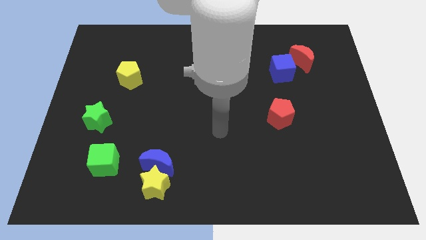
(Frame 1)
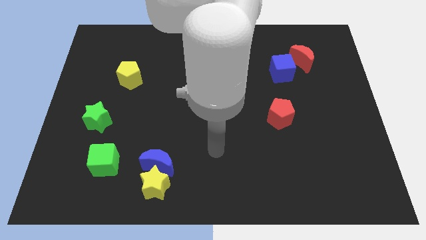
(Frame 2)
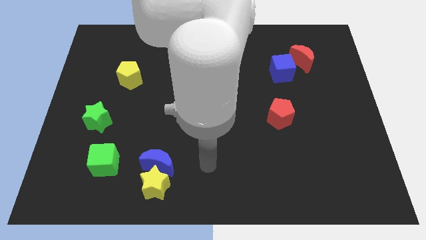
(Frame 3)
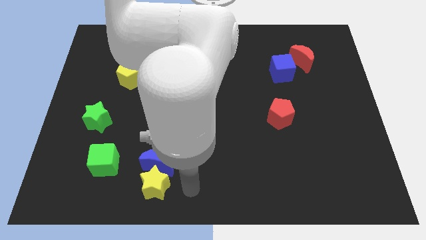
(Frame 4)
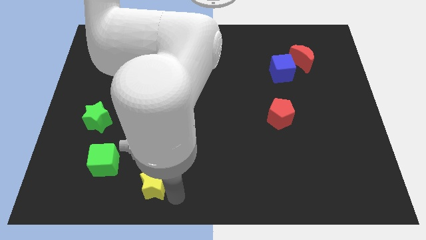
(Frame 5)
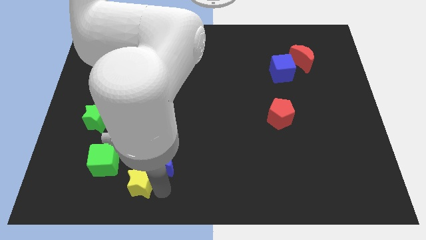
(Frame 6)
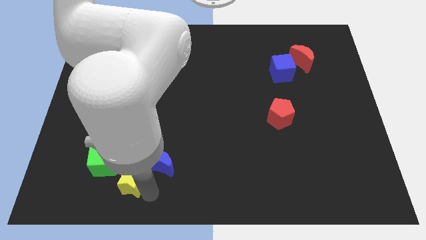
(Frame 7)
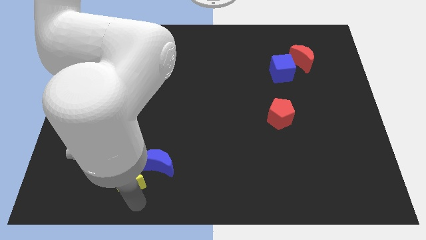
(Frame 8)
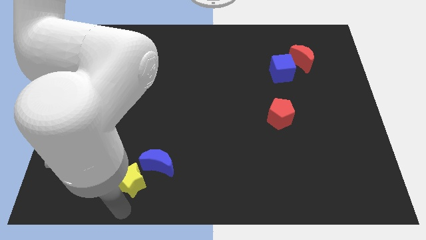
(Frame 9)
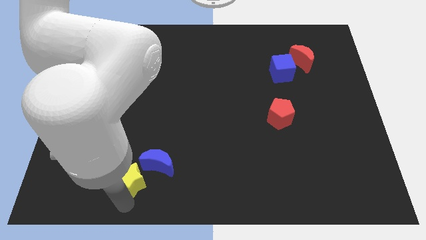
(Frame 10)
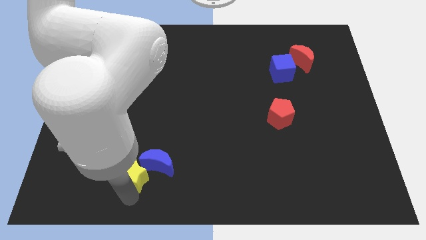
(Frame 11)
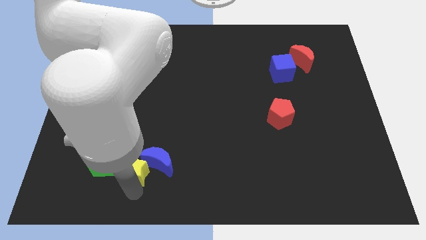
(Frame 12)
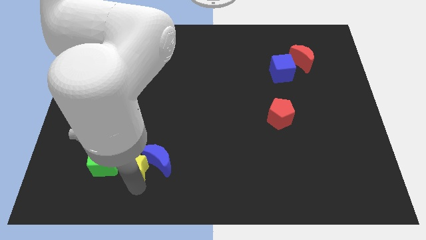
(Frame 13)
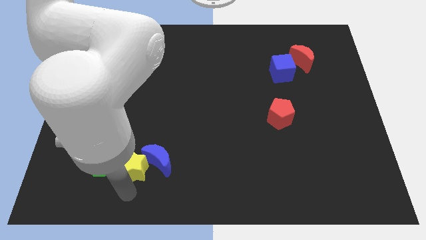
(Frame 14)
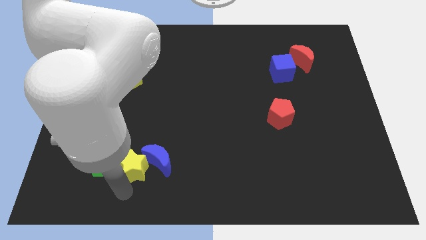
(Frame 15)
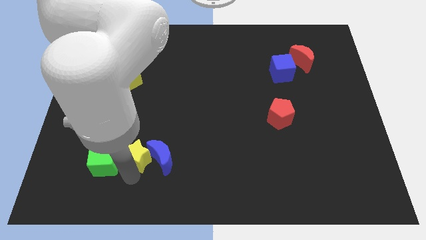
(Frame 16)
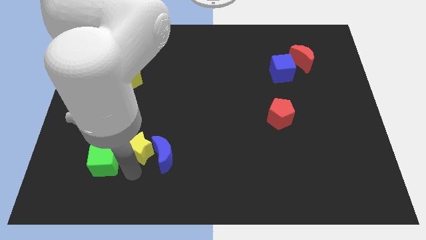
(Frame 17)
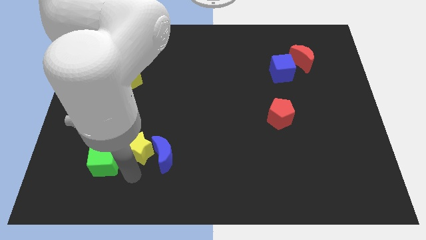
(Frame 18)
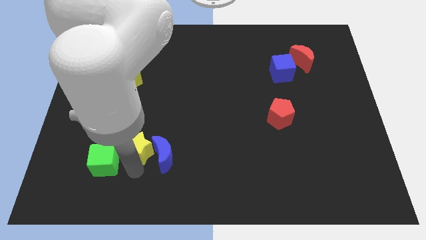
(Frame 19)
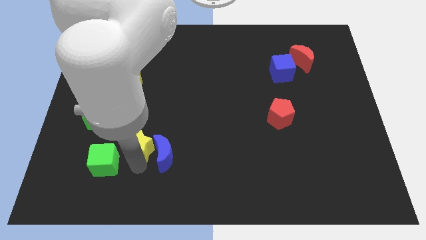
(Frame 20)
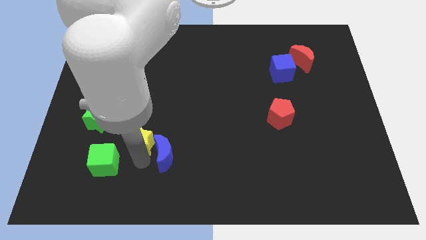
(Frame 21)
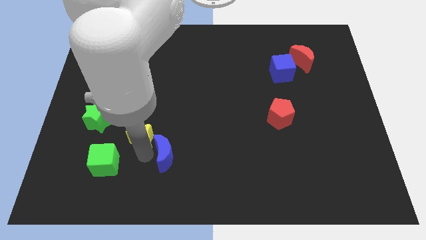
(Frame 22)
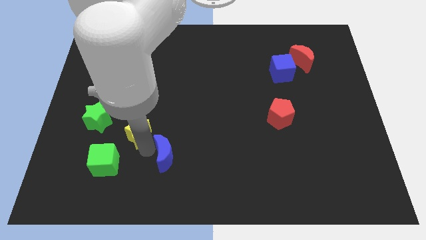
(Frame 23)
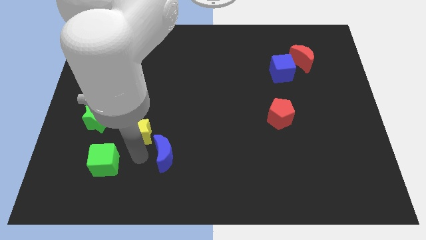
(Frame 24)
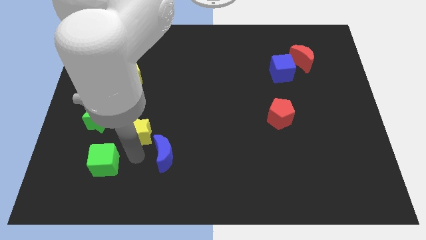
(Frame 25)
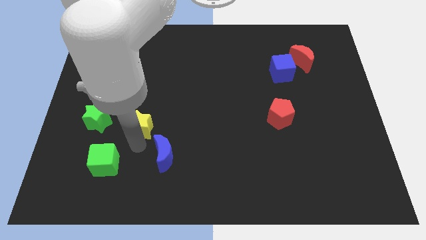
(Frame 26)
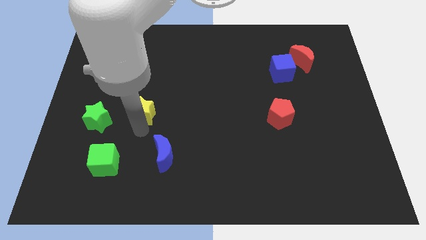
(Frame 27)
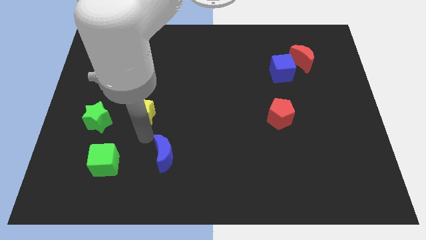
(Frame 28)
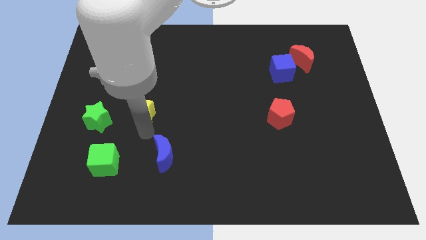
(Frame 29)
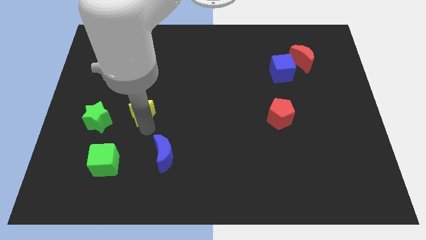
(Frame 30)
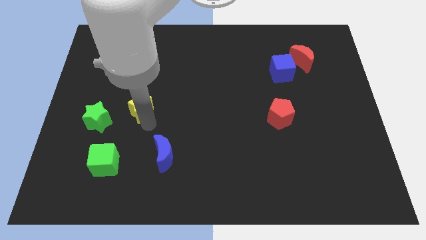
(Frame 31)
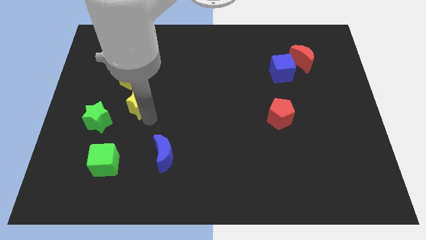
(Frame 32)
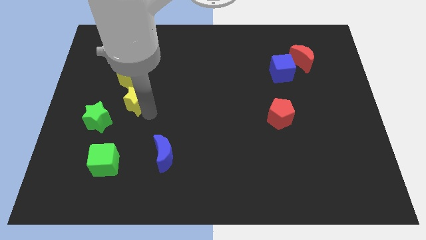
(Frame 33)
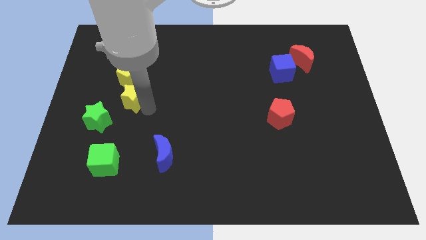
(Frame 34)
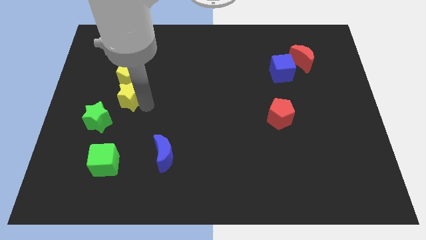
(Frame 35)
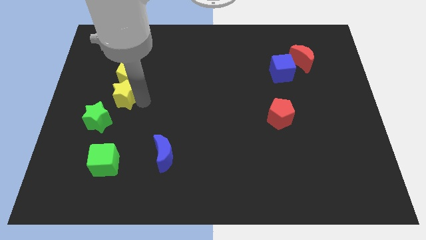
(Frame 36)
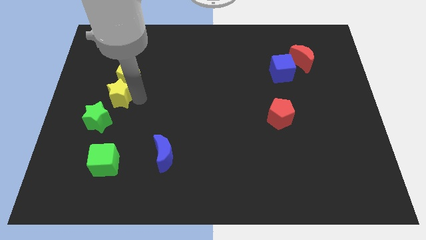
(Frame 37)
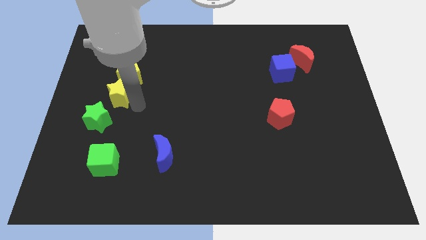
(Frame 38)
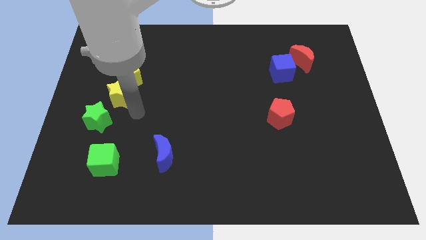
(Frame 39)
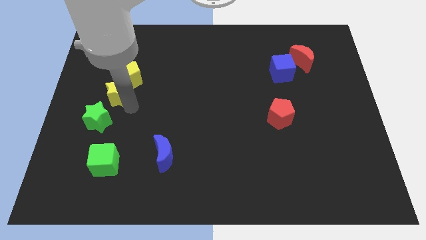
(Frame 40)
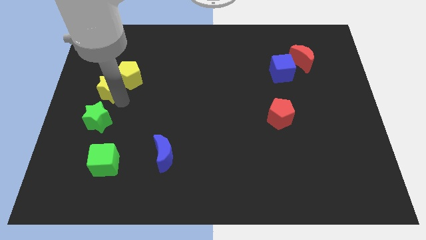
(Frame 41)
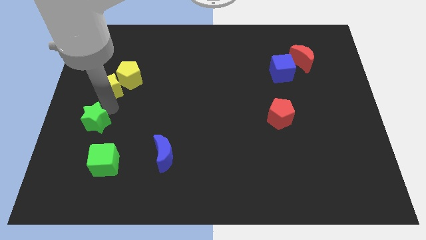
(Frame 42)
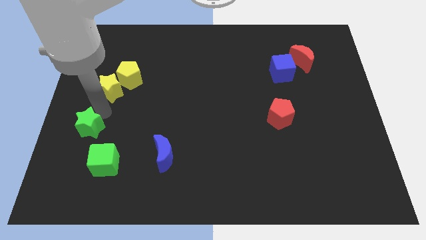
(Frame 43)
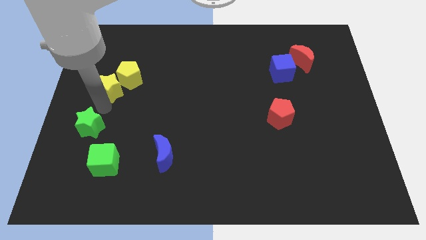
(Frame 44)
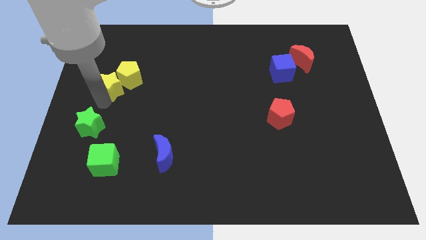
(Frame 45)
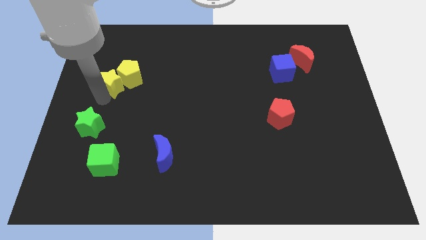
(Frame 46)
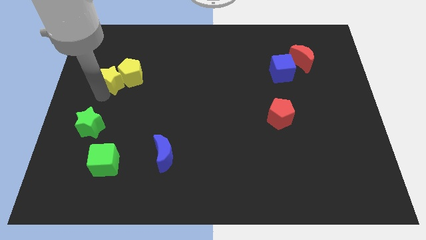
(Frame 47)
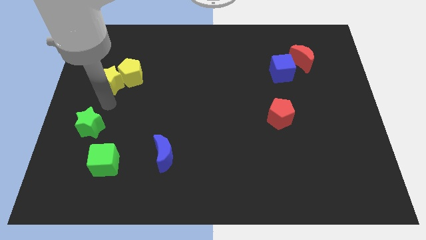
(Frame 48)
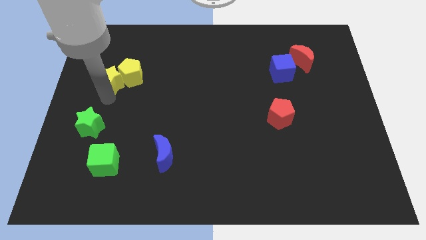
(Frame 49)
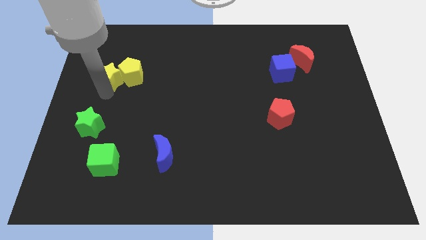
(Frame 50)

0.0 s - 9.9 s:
move the yellow star diagonally up and to the left of the yellow pentagon

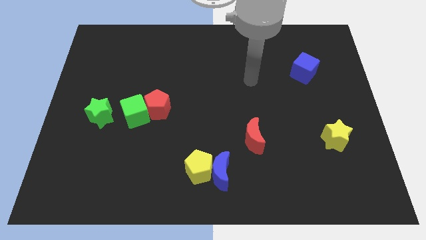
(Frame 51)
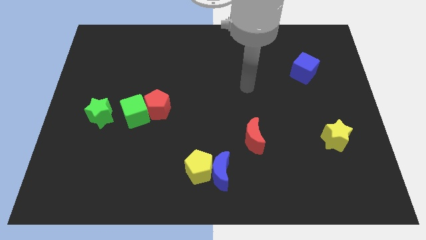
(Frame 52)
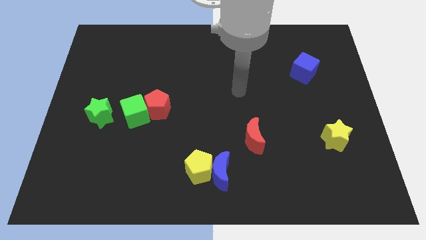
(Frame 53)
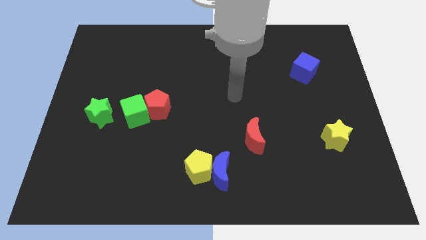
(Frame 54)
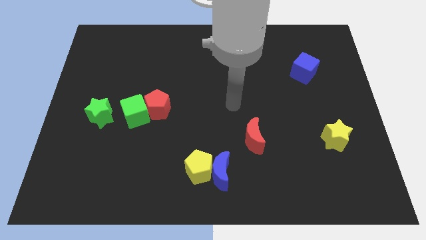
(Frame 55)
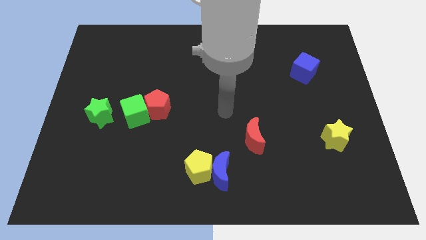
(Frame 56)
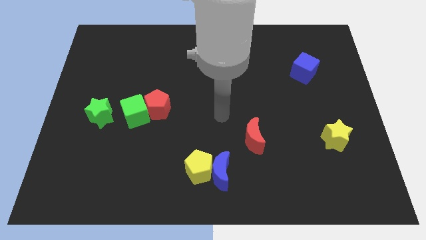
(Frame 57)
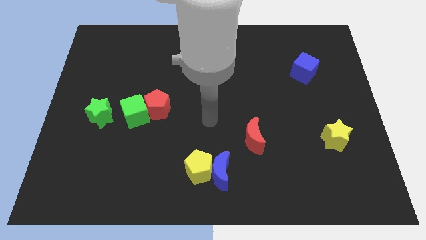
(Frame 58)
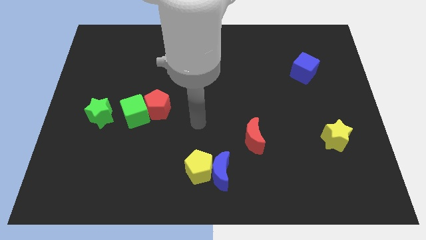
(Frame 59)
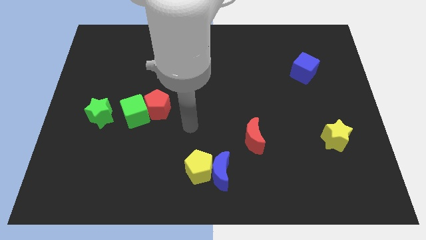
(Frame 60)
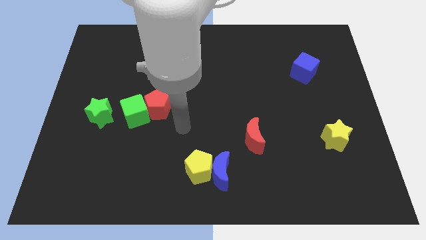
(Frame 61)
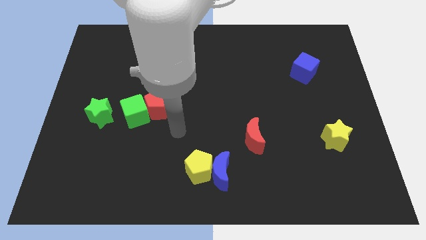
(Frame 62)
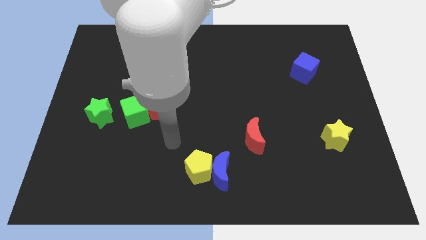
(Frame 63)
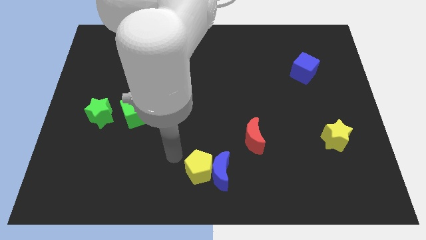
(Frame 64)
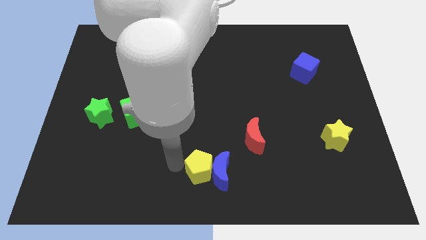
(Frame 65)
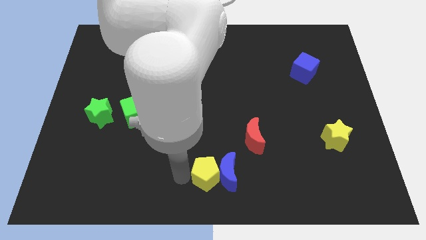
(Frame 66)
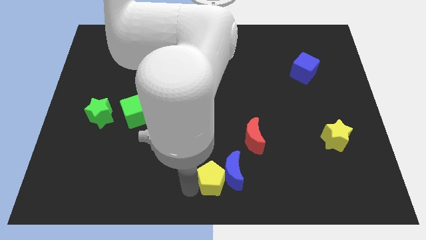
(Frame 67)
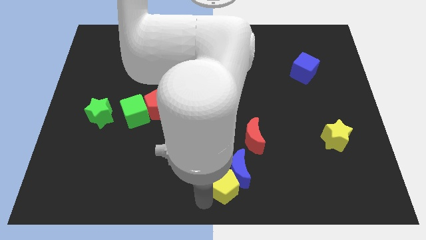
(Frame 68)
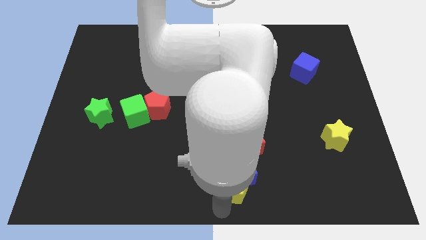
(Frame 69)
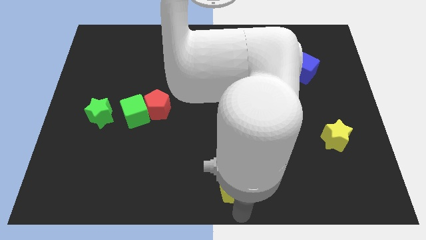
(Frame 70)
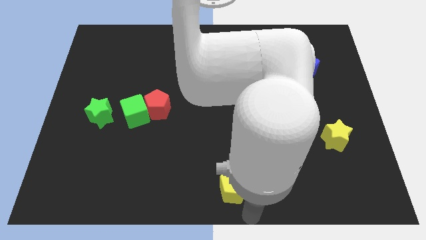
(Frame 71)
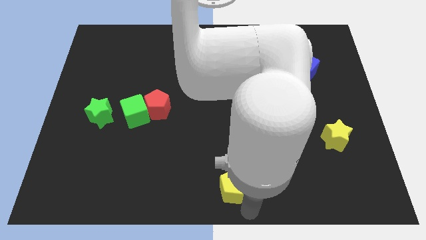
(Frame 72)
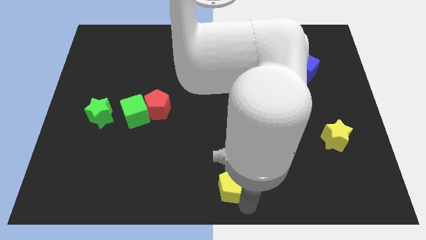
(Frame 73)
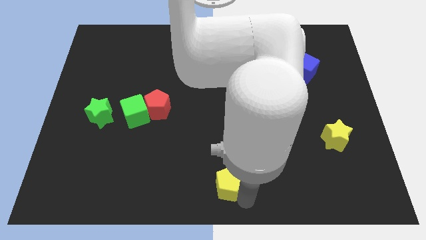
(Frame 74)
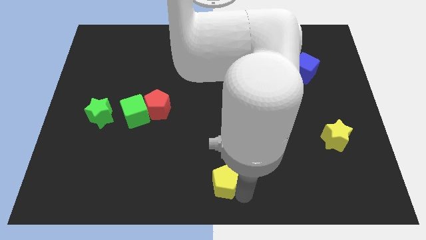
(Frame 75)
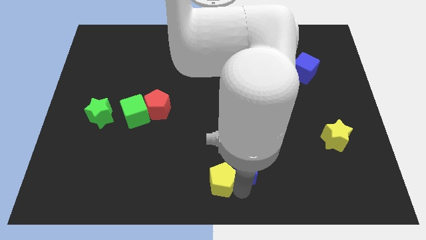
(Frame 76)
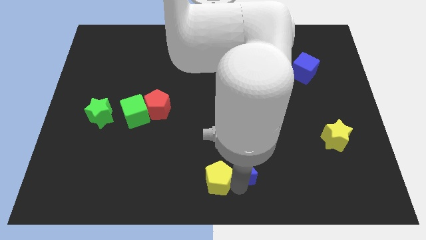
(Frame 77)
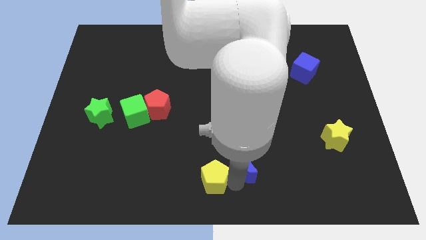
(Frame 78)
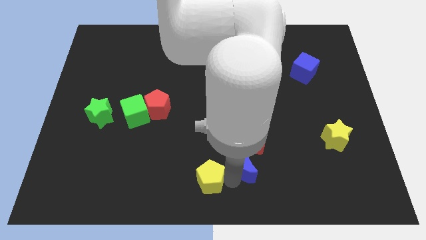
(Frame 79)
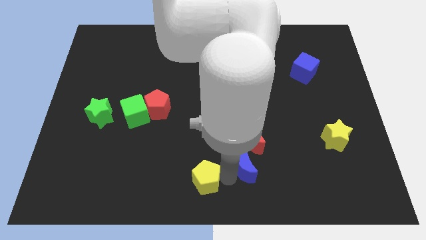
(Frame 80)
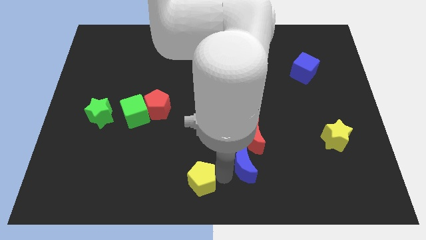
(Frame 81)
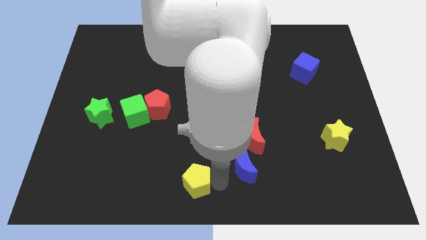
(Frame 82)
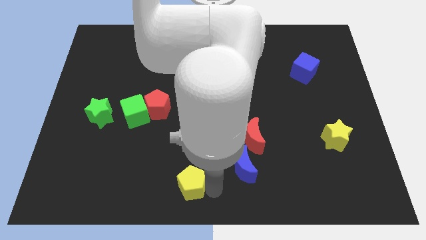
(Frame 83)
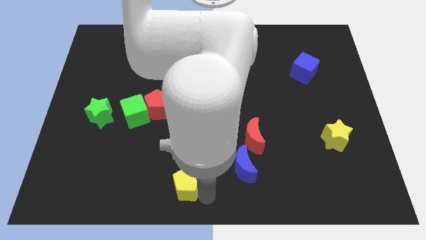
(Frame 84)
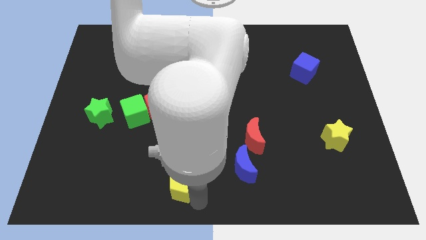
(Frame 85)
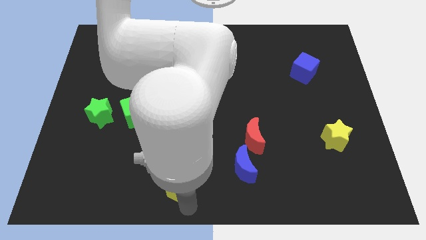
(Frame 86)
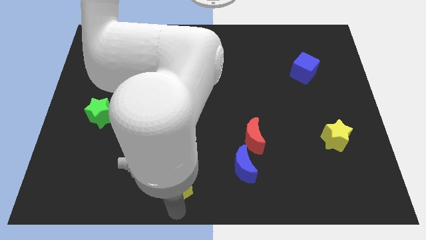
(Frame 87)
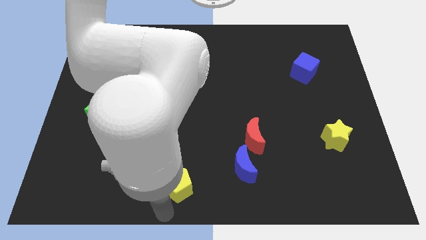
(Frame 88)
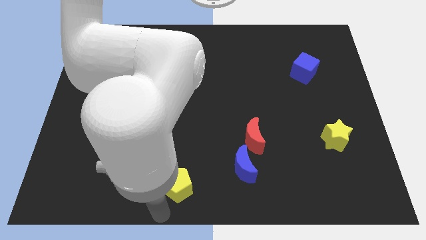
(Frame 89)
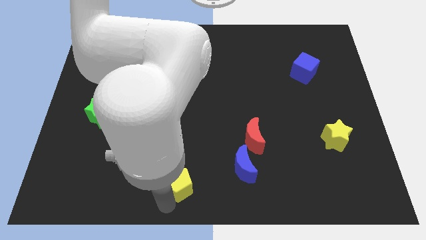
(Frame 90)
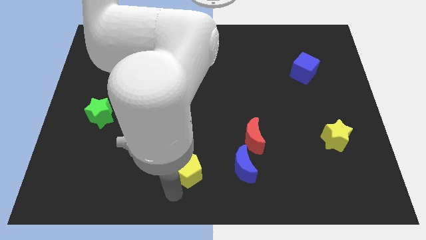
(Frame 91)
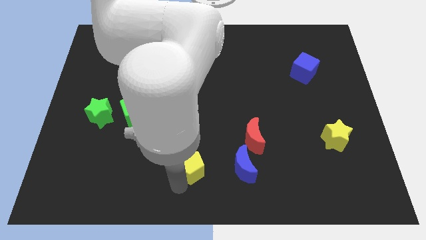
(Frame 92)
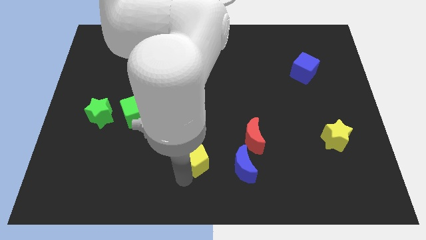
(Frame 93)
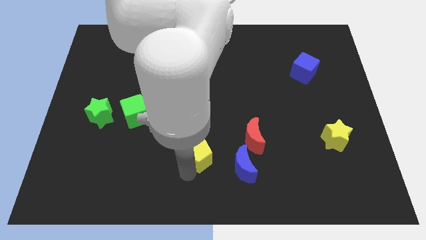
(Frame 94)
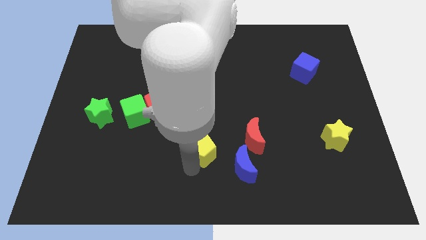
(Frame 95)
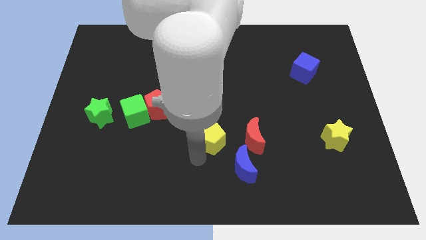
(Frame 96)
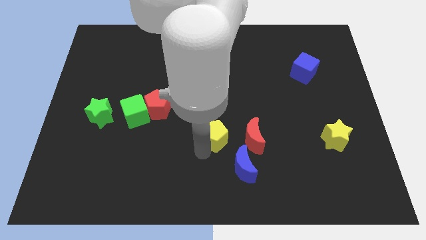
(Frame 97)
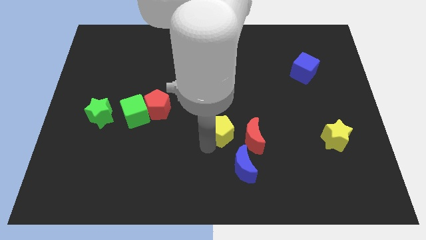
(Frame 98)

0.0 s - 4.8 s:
put the yellow pentagon to the top left of the red moon
